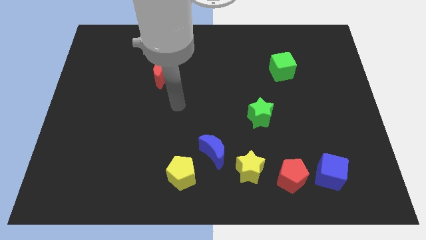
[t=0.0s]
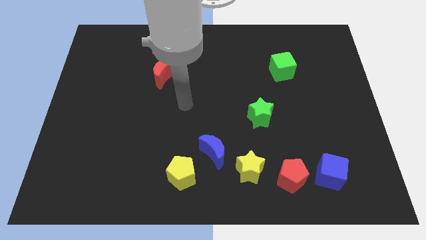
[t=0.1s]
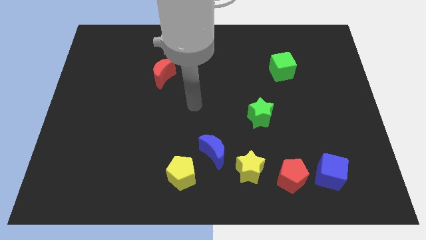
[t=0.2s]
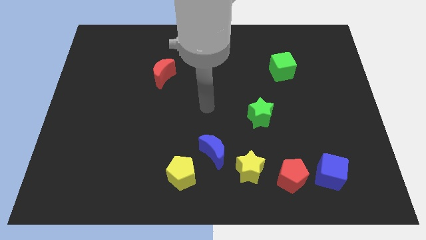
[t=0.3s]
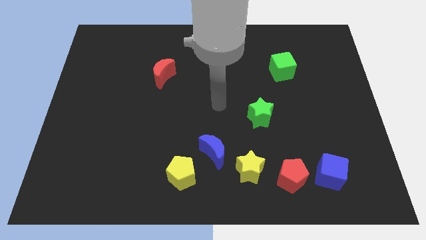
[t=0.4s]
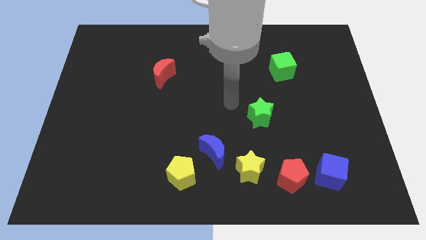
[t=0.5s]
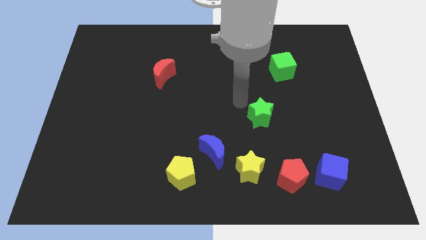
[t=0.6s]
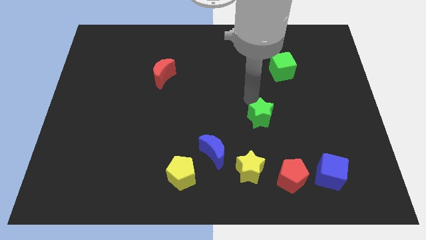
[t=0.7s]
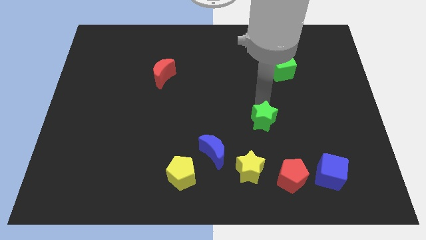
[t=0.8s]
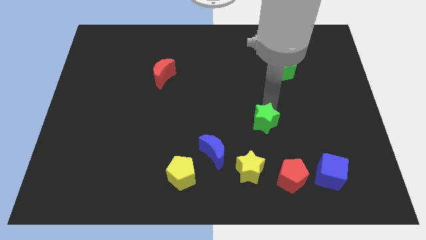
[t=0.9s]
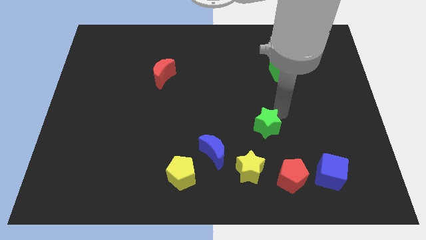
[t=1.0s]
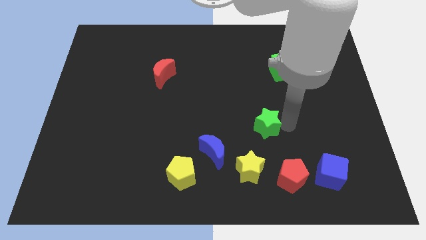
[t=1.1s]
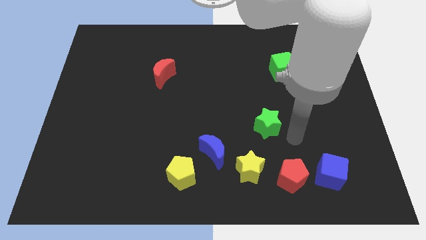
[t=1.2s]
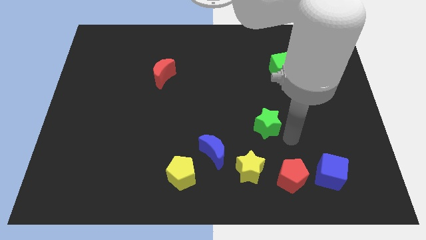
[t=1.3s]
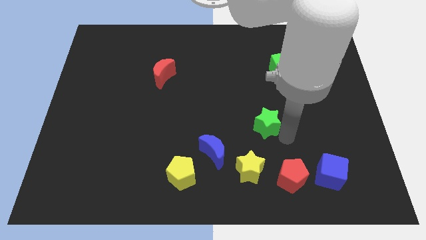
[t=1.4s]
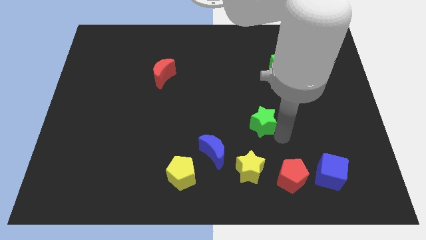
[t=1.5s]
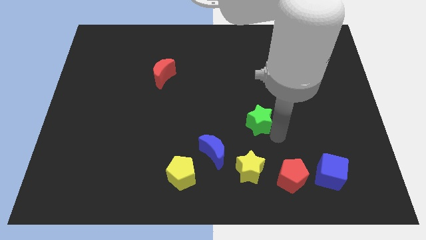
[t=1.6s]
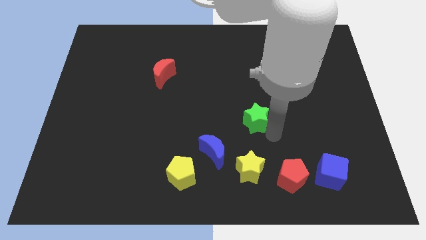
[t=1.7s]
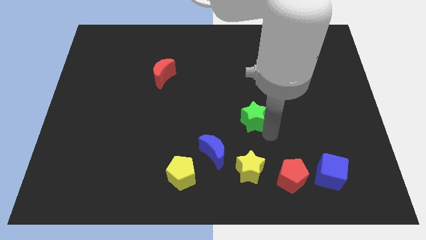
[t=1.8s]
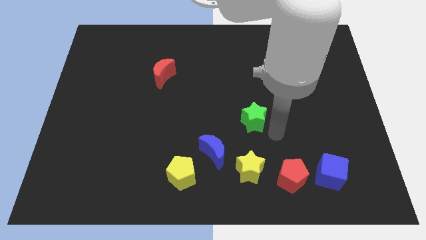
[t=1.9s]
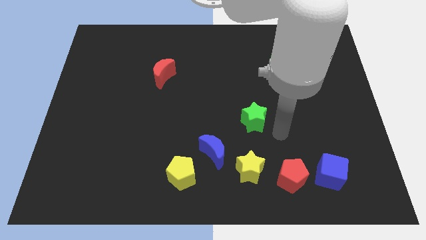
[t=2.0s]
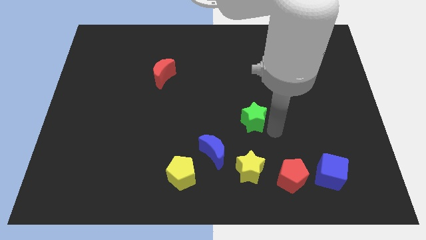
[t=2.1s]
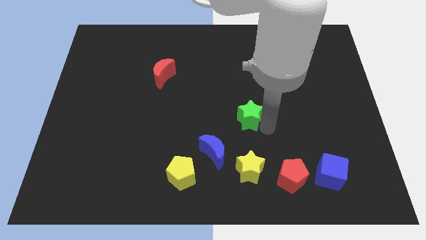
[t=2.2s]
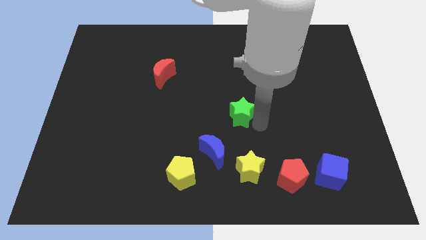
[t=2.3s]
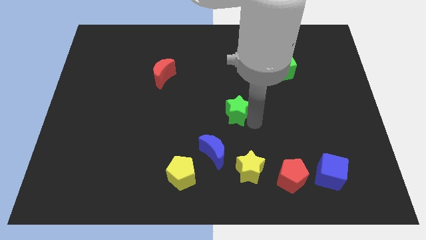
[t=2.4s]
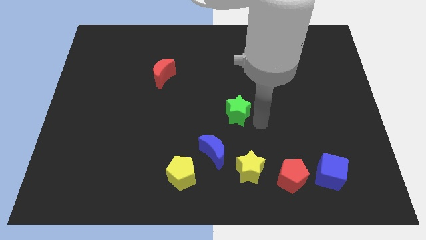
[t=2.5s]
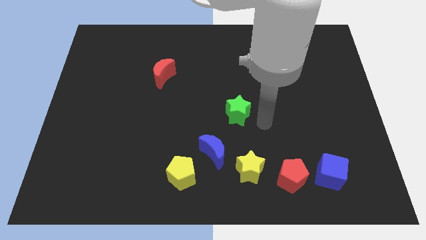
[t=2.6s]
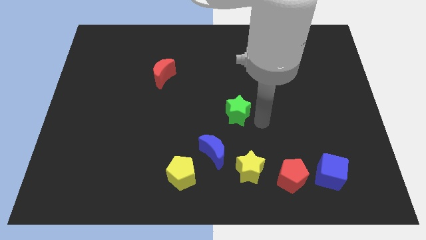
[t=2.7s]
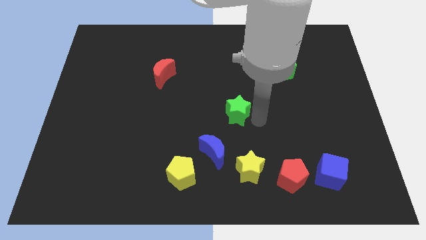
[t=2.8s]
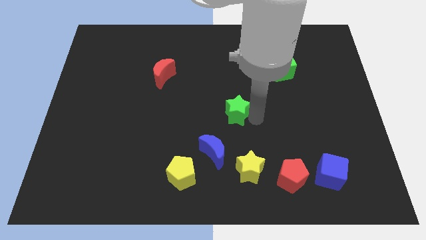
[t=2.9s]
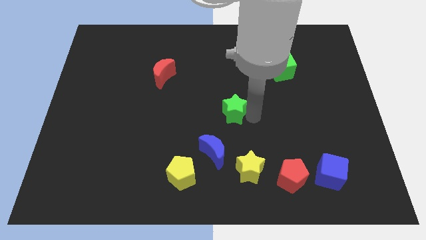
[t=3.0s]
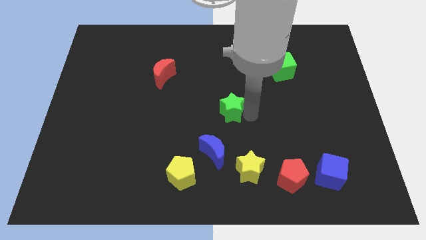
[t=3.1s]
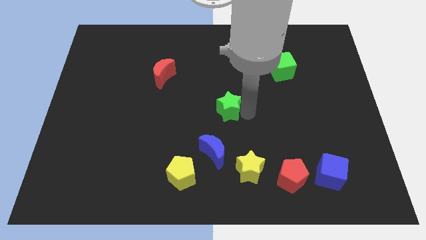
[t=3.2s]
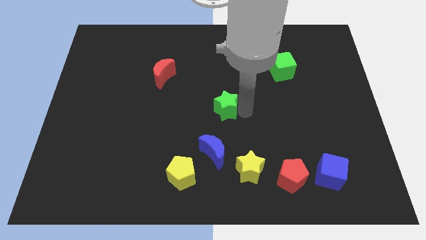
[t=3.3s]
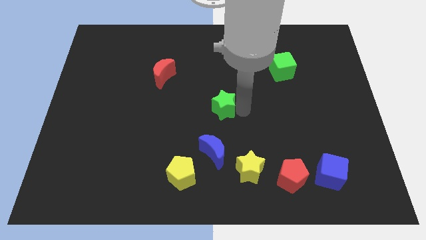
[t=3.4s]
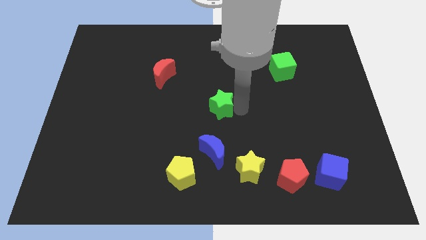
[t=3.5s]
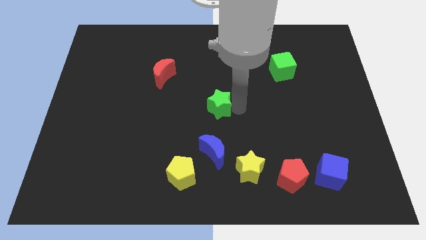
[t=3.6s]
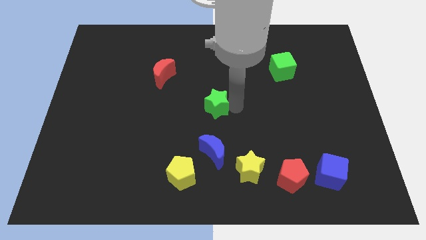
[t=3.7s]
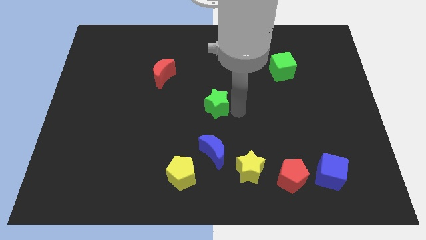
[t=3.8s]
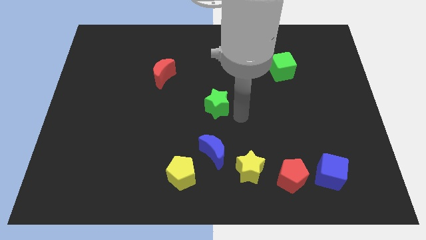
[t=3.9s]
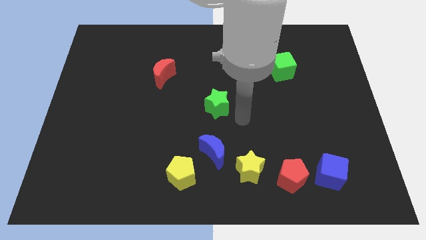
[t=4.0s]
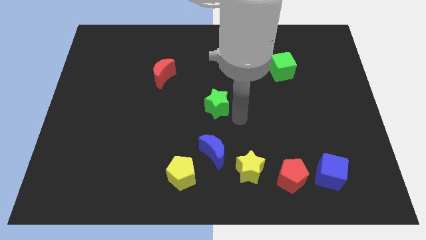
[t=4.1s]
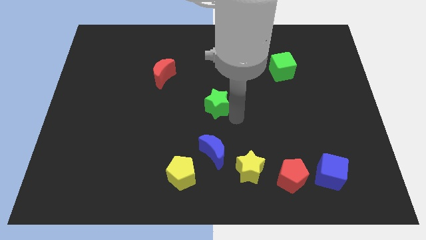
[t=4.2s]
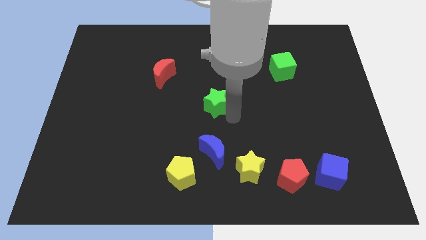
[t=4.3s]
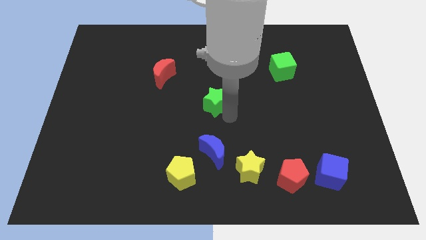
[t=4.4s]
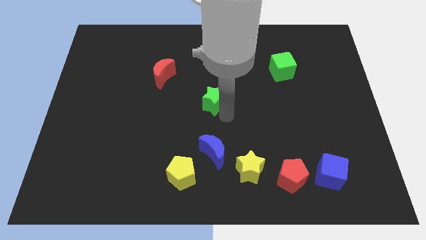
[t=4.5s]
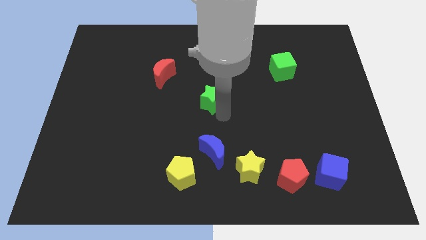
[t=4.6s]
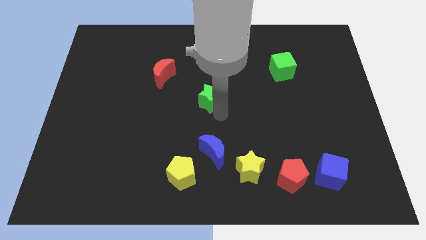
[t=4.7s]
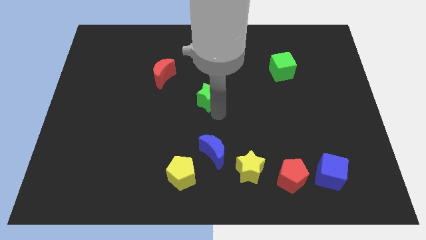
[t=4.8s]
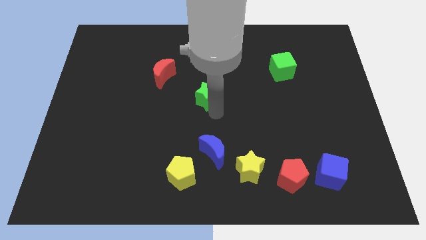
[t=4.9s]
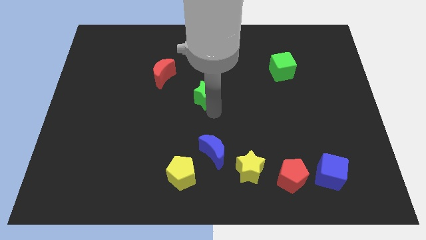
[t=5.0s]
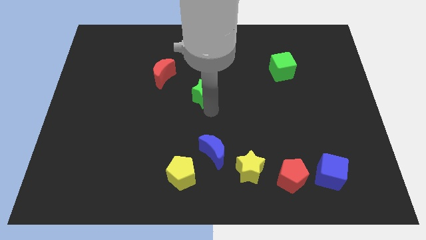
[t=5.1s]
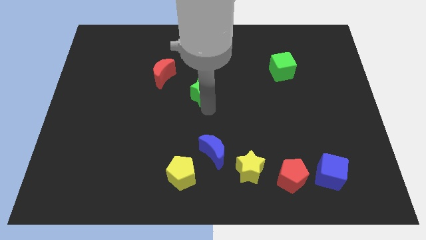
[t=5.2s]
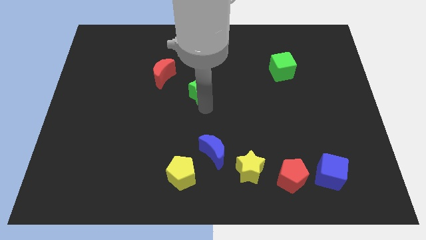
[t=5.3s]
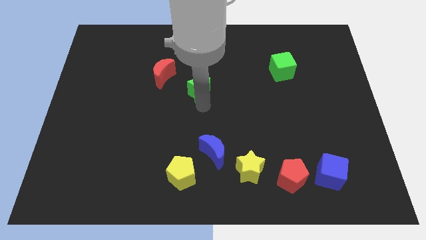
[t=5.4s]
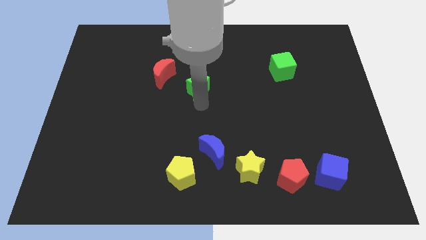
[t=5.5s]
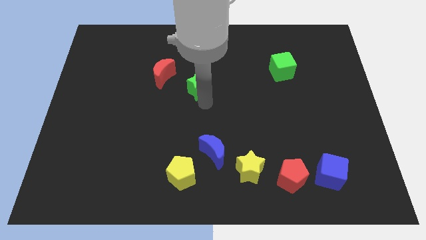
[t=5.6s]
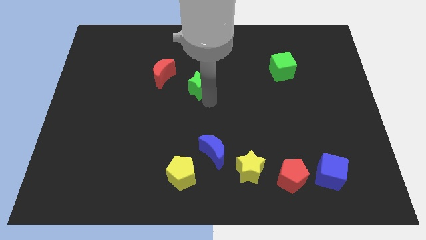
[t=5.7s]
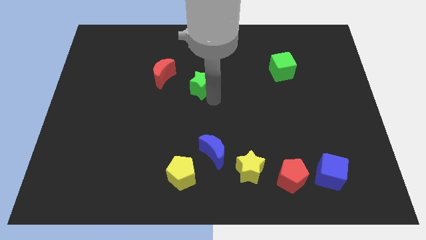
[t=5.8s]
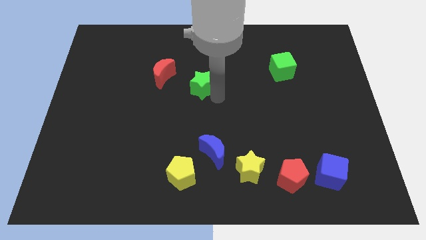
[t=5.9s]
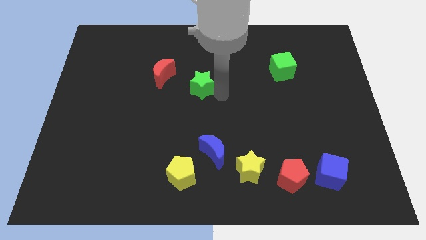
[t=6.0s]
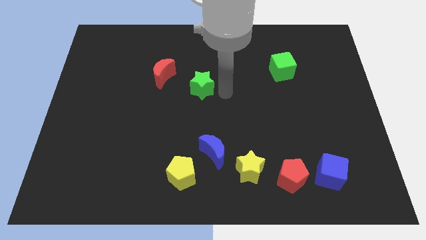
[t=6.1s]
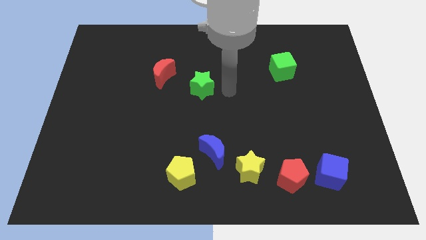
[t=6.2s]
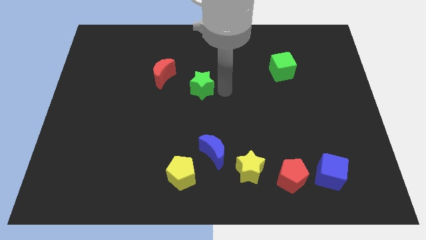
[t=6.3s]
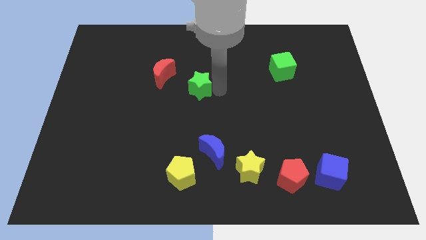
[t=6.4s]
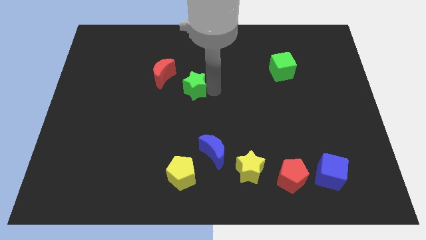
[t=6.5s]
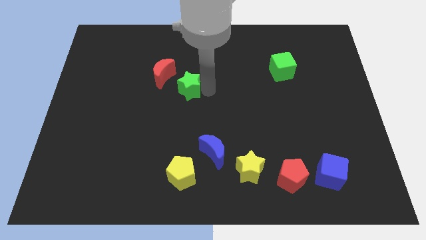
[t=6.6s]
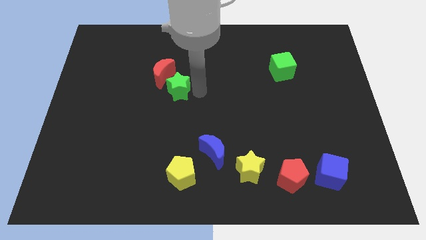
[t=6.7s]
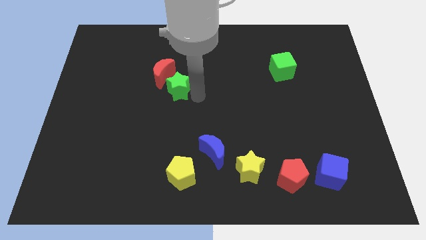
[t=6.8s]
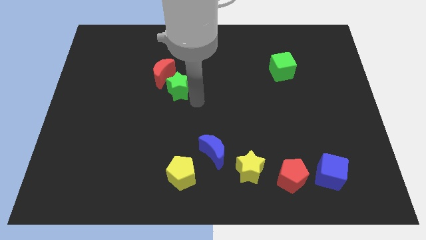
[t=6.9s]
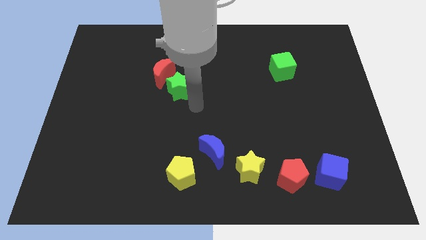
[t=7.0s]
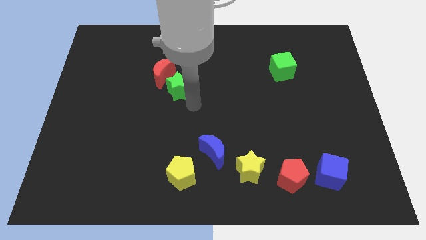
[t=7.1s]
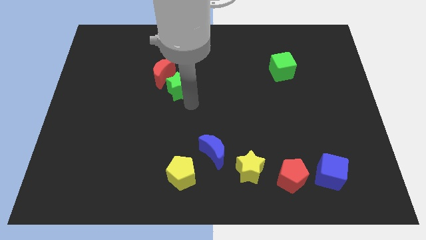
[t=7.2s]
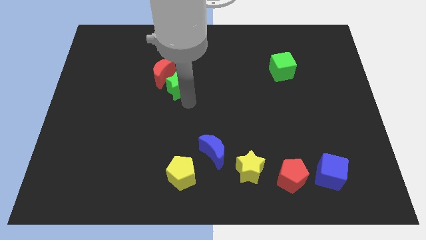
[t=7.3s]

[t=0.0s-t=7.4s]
push the green star next to the red moon
